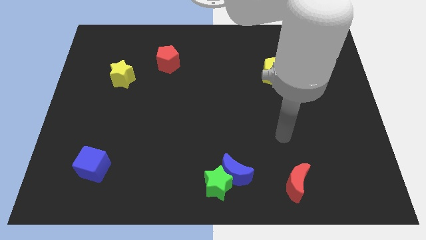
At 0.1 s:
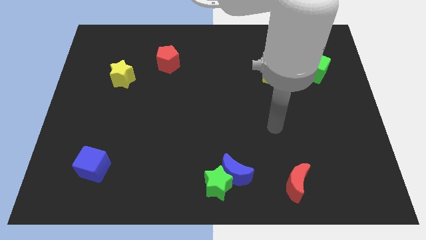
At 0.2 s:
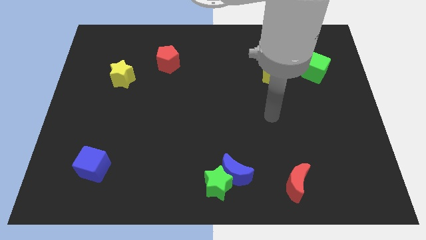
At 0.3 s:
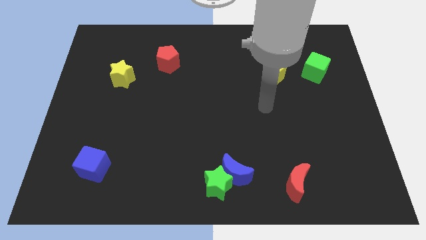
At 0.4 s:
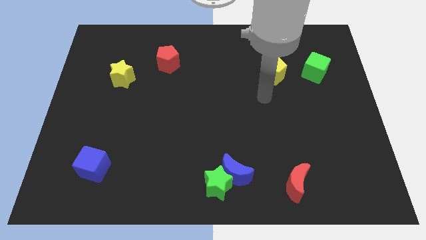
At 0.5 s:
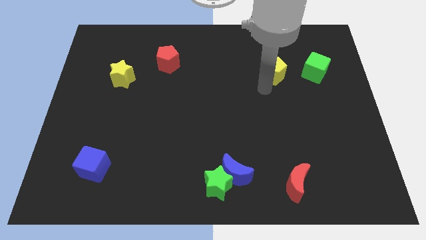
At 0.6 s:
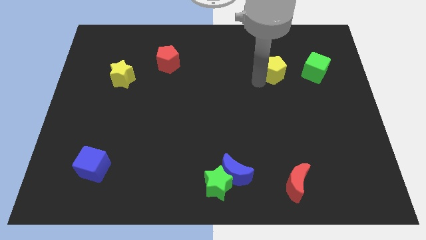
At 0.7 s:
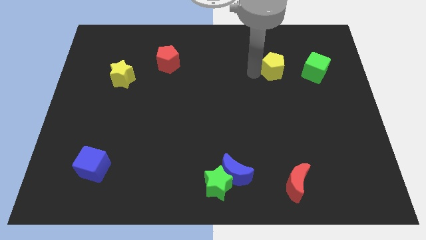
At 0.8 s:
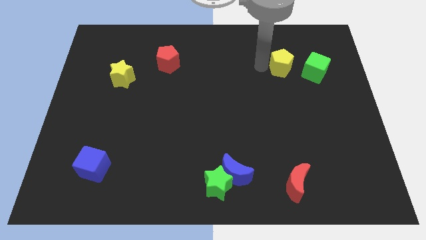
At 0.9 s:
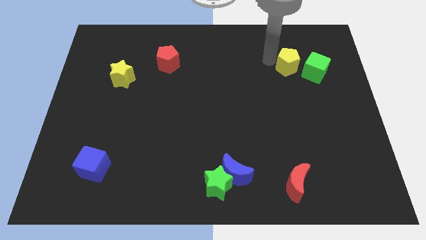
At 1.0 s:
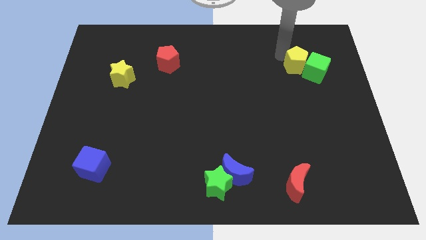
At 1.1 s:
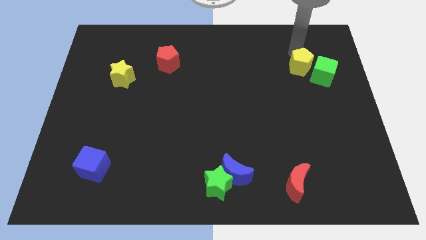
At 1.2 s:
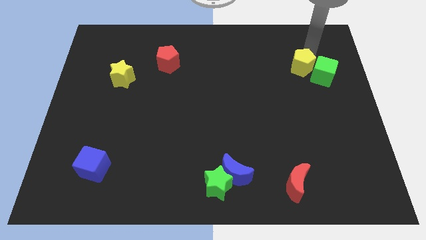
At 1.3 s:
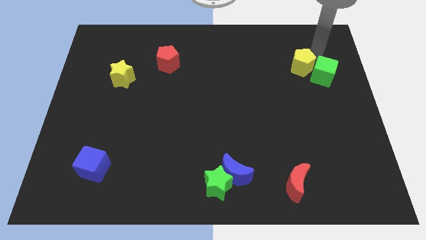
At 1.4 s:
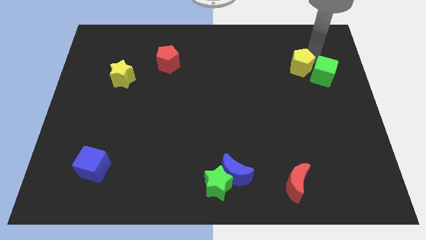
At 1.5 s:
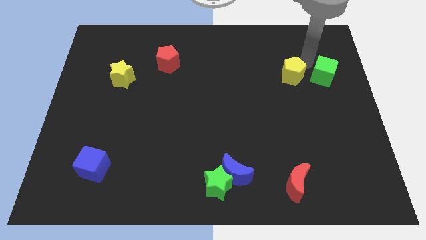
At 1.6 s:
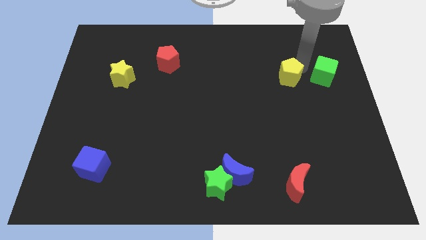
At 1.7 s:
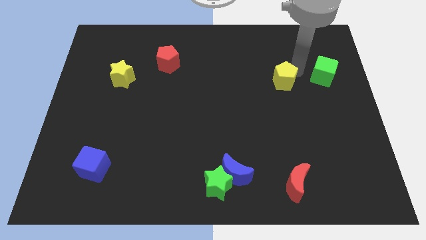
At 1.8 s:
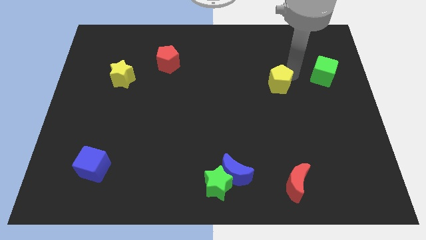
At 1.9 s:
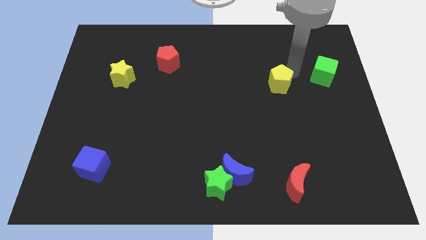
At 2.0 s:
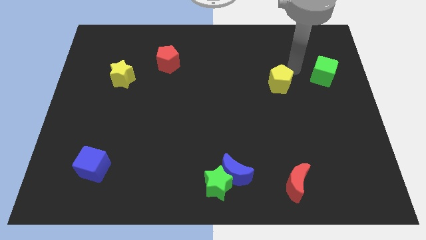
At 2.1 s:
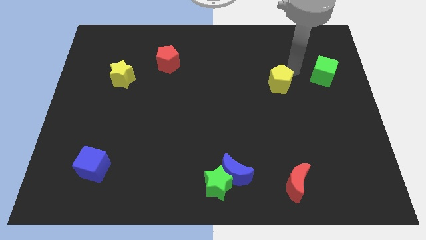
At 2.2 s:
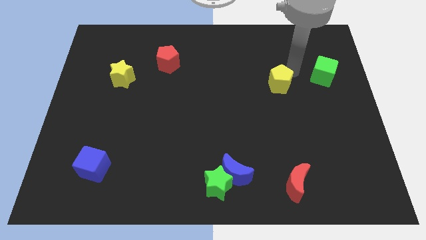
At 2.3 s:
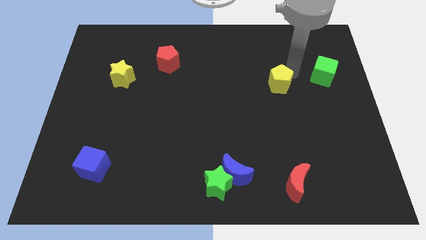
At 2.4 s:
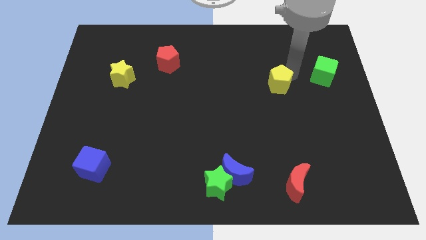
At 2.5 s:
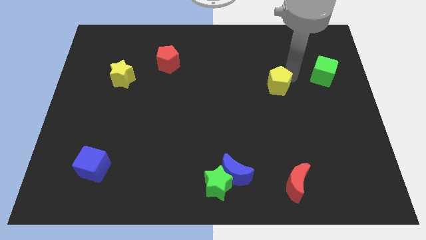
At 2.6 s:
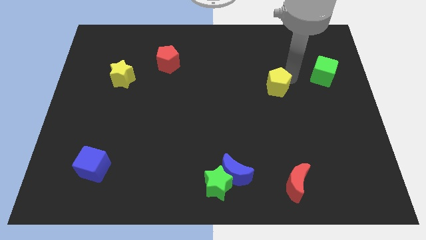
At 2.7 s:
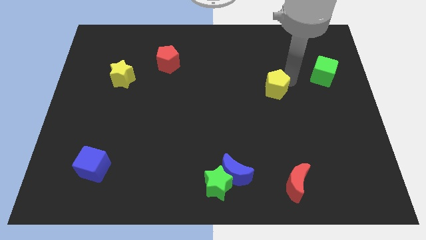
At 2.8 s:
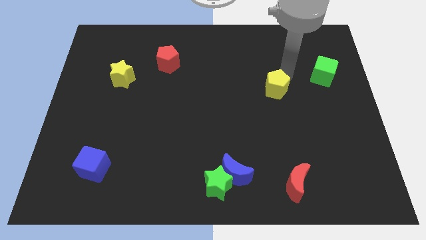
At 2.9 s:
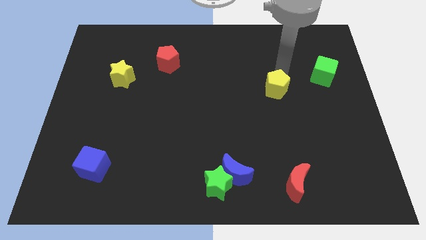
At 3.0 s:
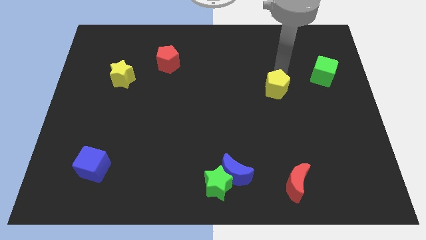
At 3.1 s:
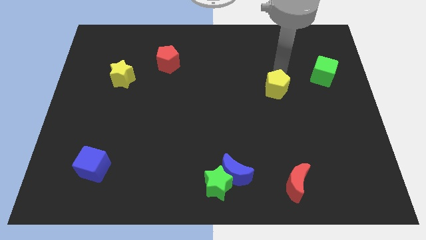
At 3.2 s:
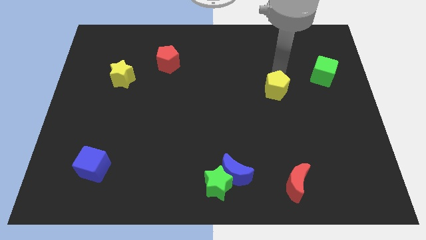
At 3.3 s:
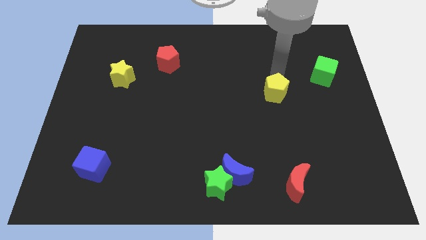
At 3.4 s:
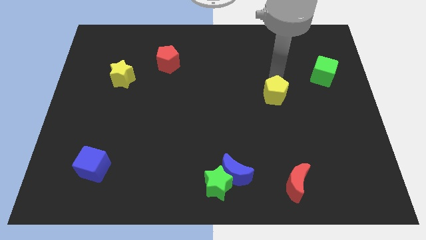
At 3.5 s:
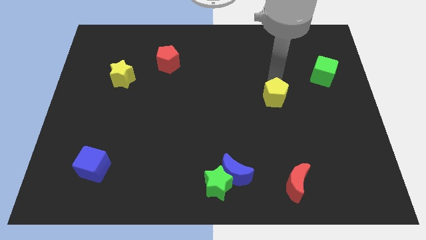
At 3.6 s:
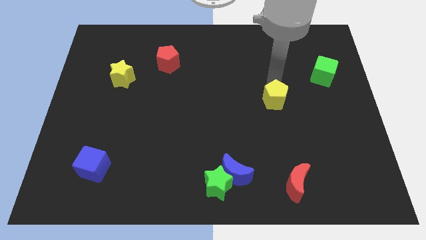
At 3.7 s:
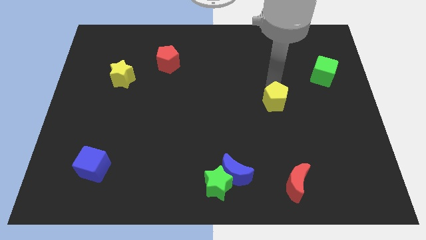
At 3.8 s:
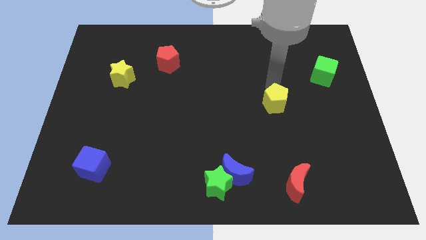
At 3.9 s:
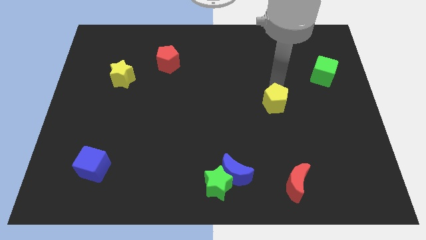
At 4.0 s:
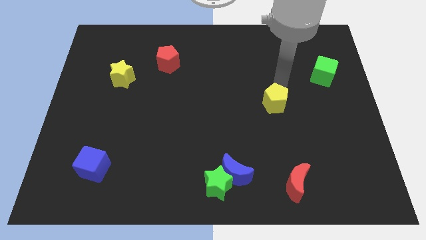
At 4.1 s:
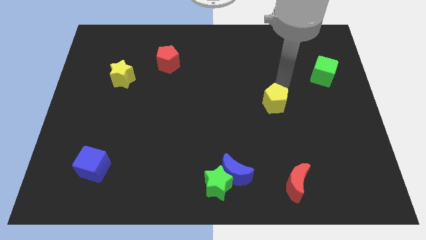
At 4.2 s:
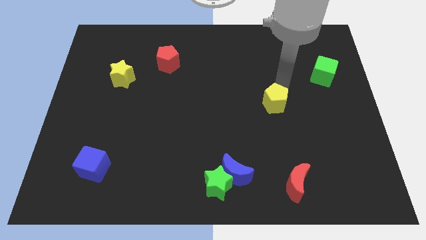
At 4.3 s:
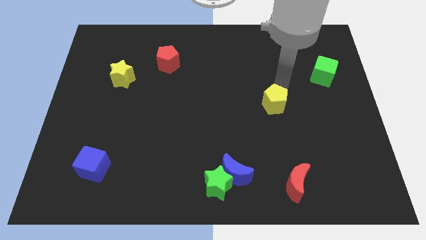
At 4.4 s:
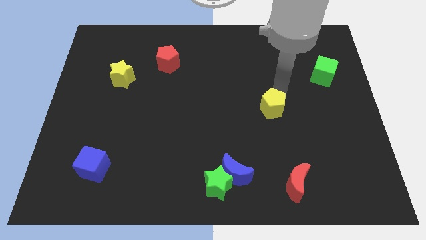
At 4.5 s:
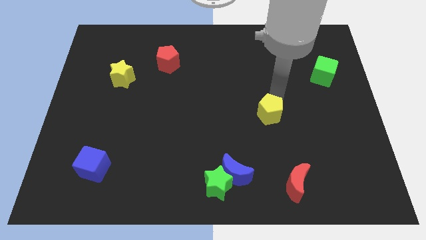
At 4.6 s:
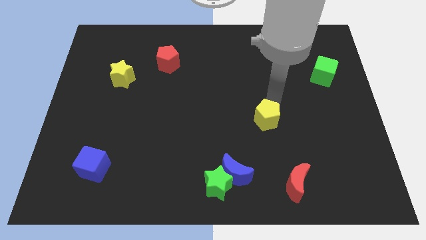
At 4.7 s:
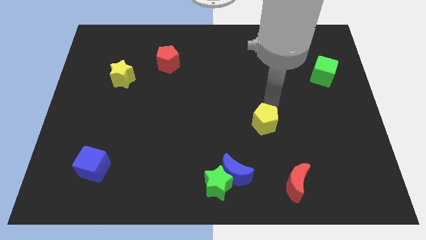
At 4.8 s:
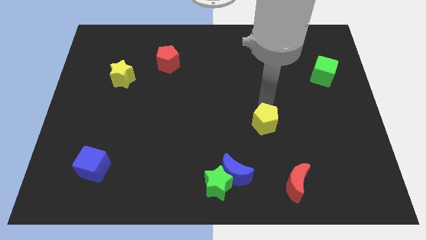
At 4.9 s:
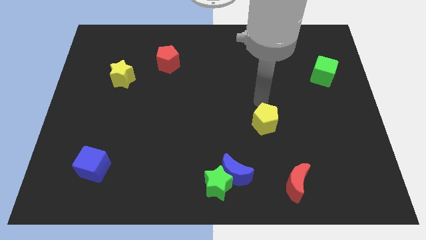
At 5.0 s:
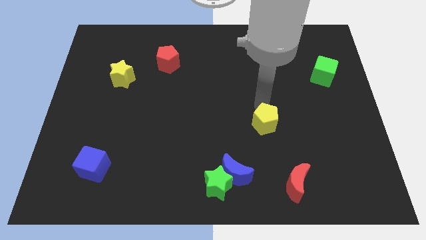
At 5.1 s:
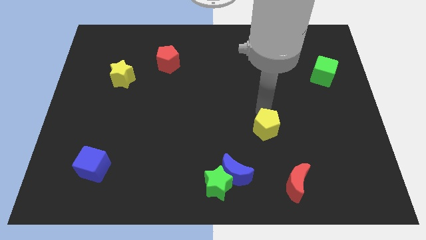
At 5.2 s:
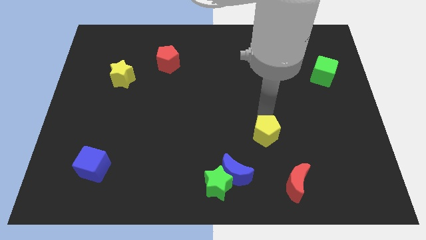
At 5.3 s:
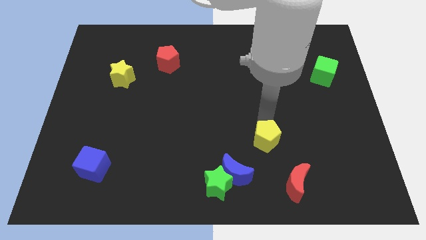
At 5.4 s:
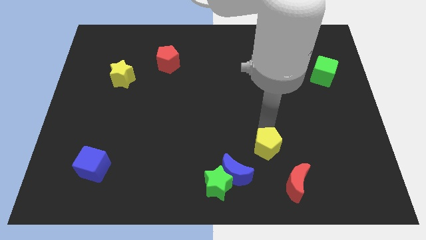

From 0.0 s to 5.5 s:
push the yellow pentagon to the top left of the red moon

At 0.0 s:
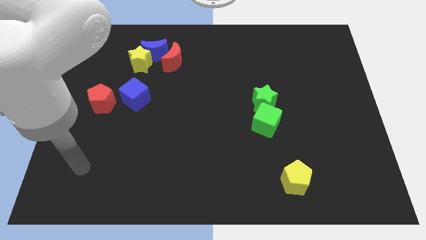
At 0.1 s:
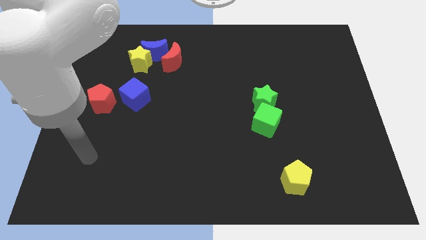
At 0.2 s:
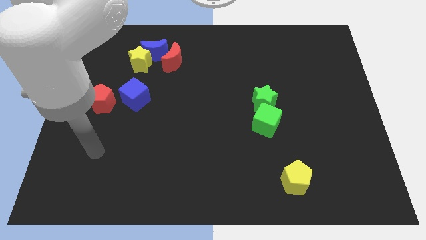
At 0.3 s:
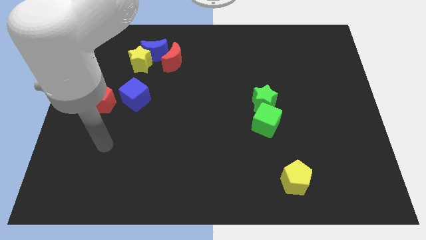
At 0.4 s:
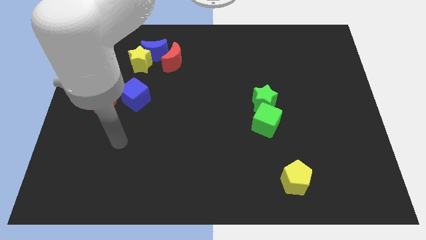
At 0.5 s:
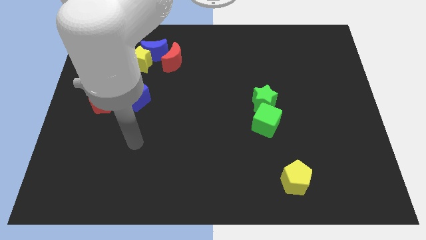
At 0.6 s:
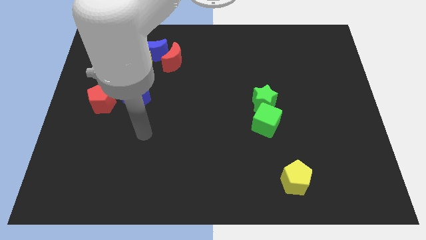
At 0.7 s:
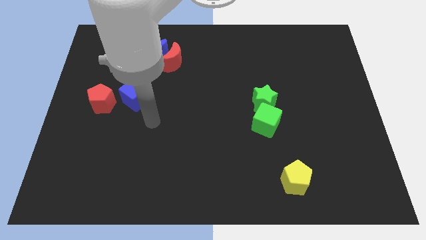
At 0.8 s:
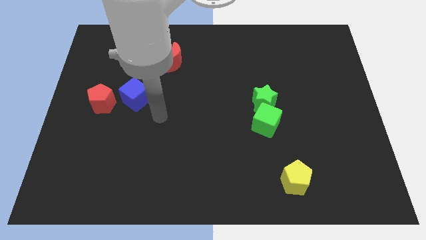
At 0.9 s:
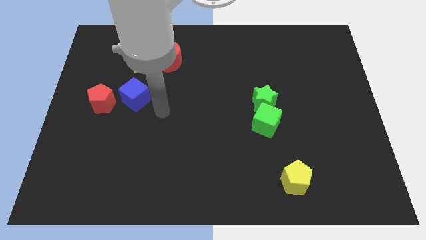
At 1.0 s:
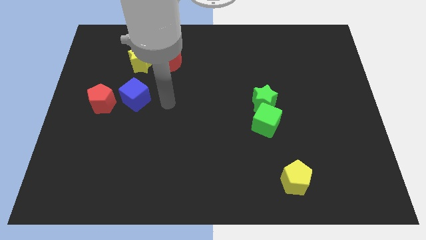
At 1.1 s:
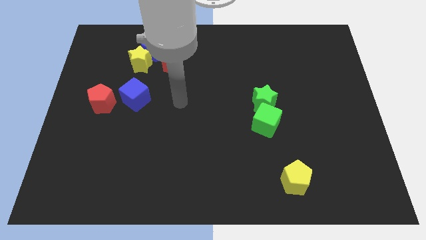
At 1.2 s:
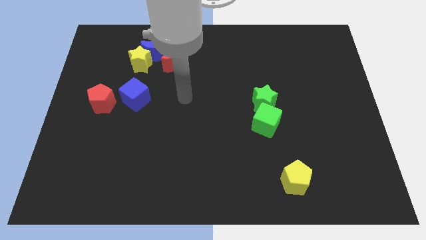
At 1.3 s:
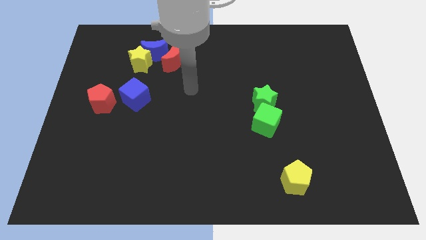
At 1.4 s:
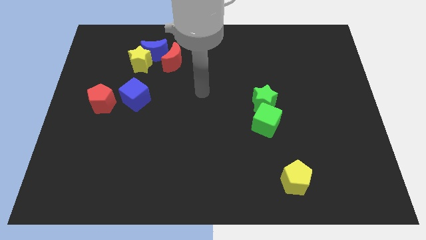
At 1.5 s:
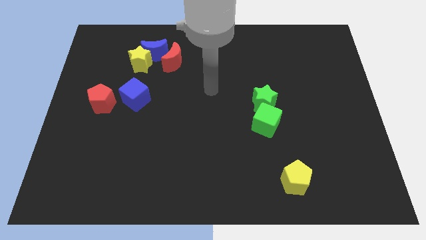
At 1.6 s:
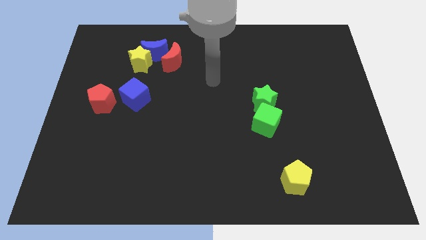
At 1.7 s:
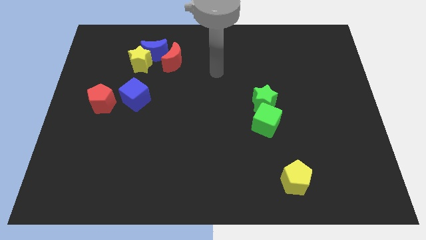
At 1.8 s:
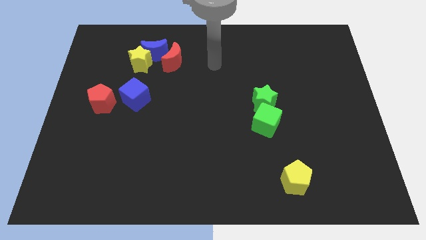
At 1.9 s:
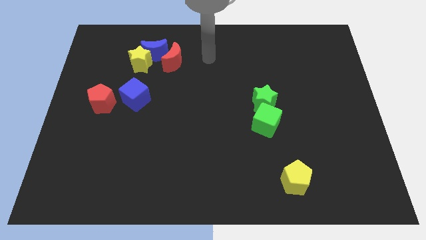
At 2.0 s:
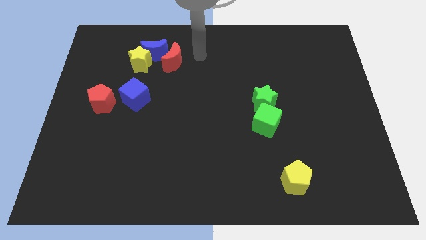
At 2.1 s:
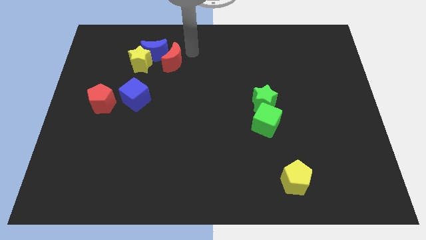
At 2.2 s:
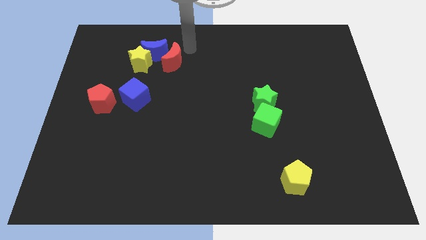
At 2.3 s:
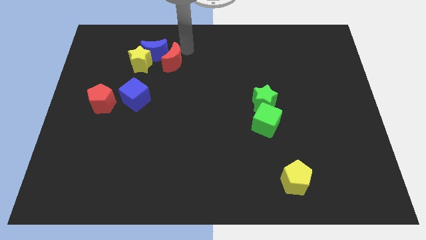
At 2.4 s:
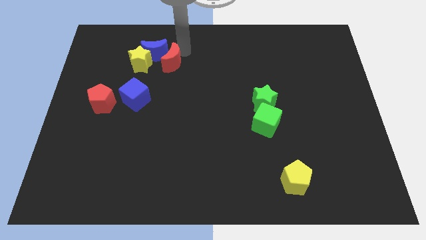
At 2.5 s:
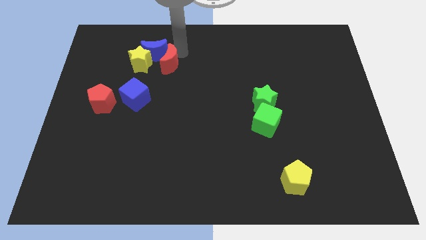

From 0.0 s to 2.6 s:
slide the red moon to the bottom of the blue moon
